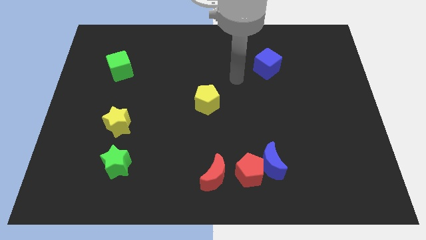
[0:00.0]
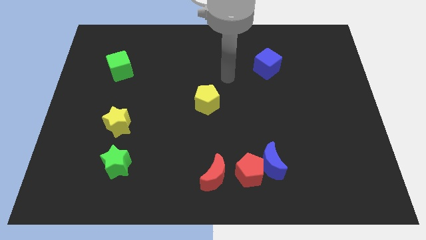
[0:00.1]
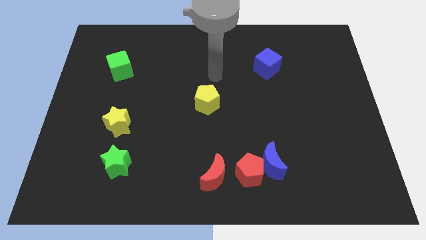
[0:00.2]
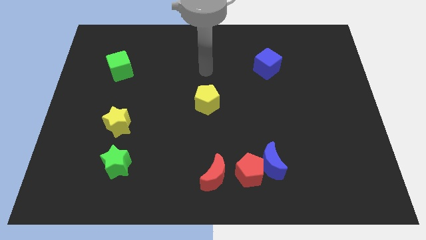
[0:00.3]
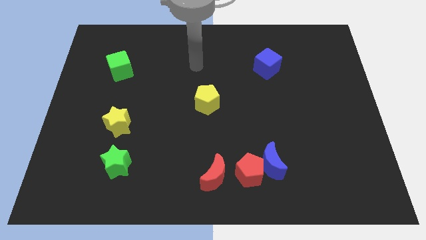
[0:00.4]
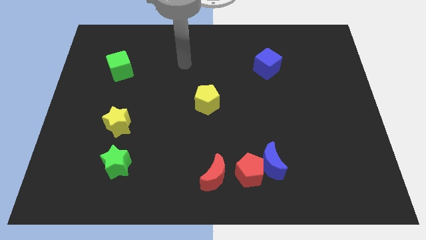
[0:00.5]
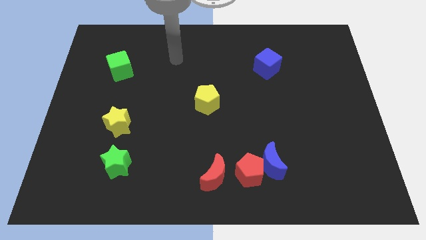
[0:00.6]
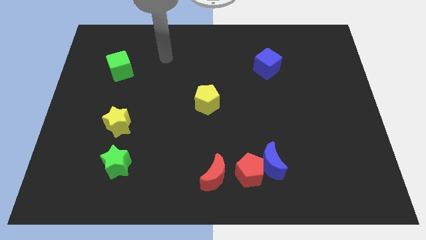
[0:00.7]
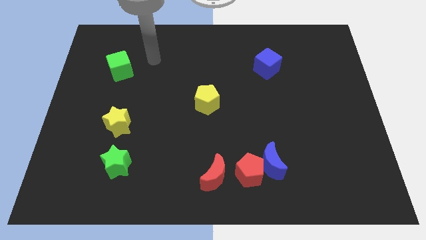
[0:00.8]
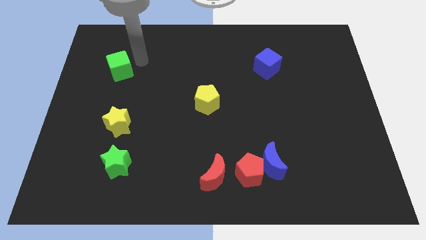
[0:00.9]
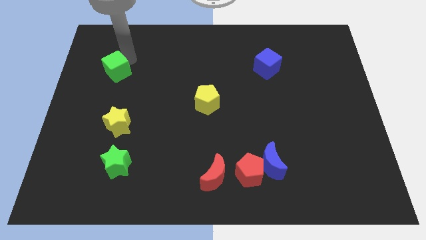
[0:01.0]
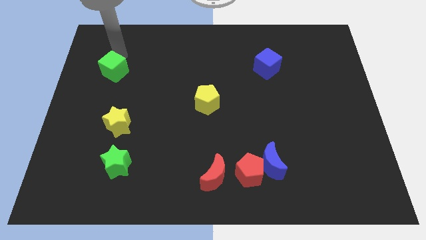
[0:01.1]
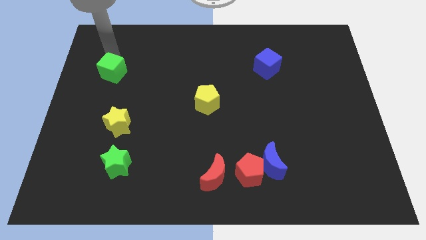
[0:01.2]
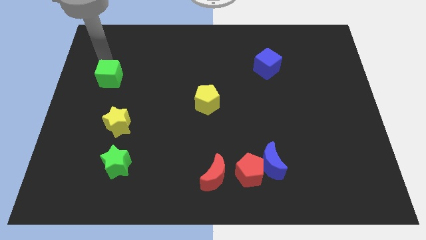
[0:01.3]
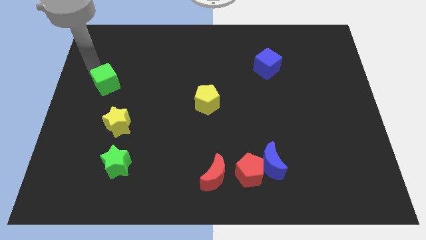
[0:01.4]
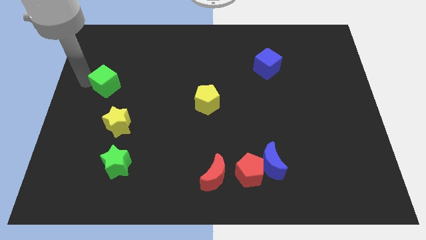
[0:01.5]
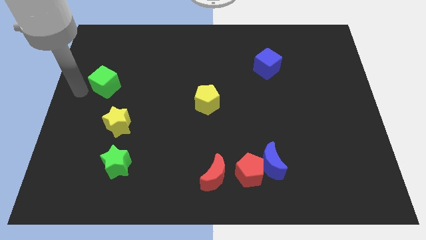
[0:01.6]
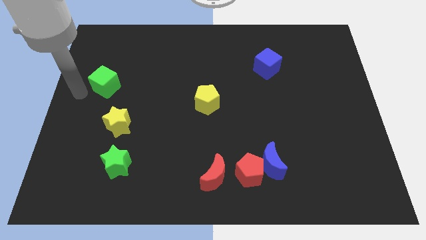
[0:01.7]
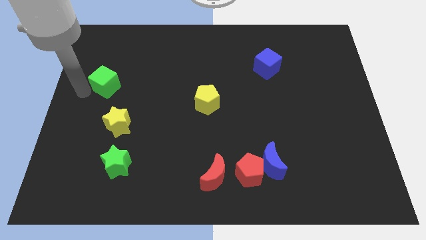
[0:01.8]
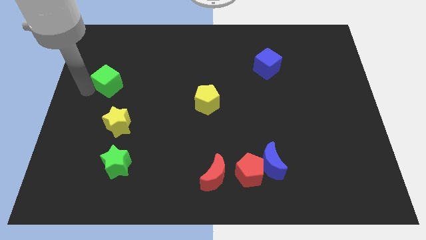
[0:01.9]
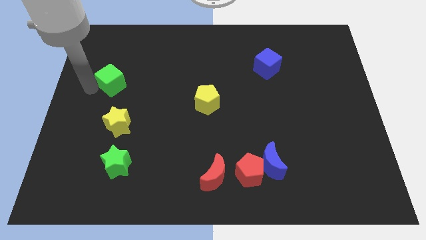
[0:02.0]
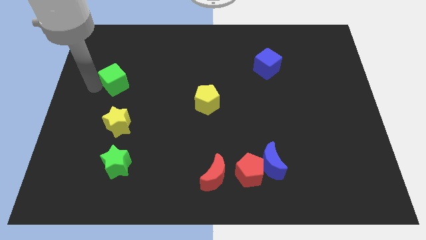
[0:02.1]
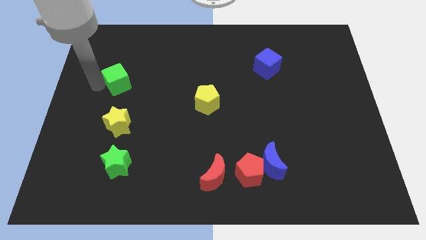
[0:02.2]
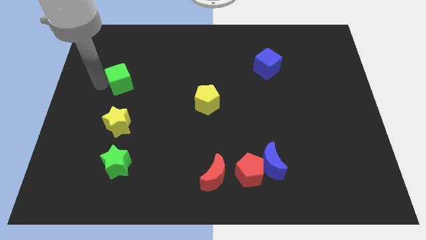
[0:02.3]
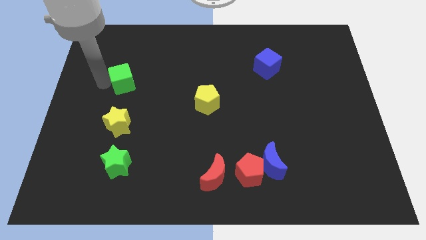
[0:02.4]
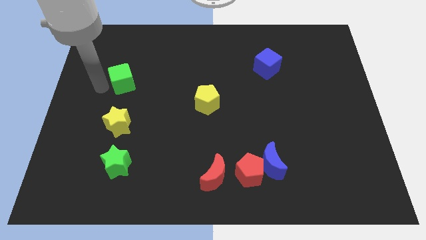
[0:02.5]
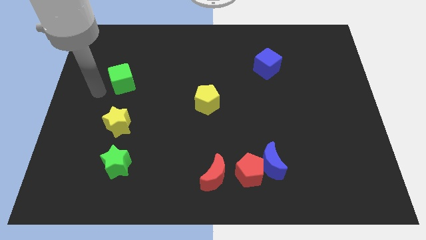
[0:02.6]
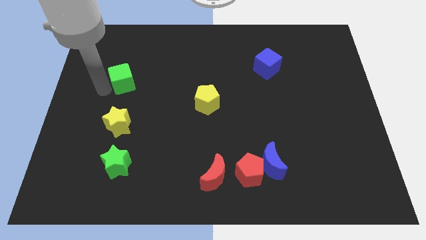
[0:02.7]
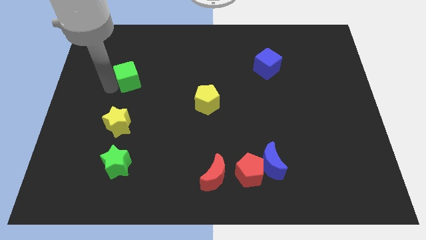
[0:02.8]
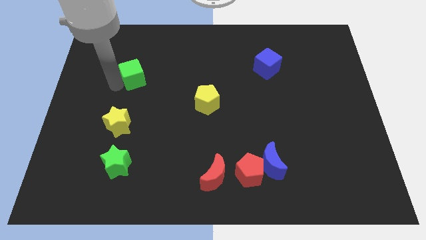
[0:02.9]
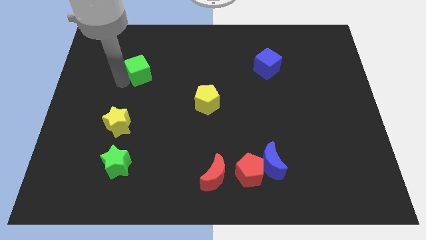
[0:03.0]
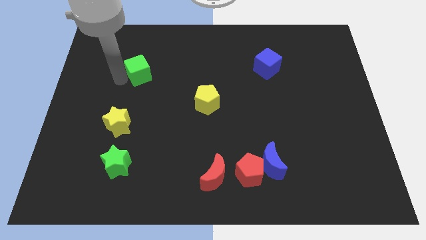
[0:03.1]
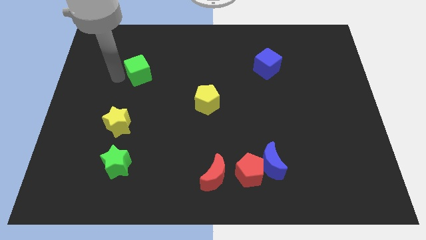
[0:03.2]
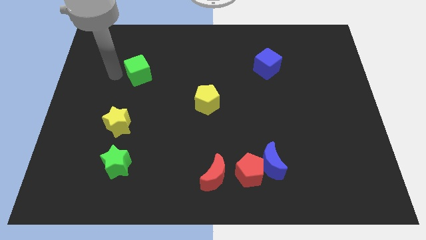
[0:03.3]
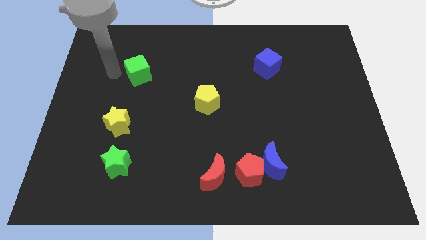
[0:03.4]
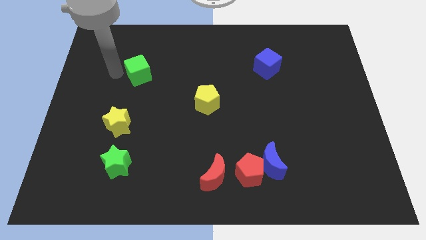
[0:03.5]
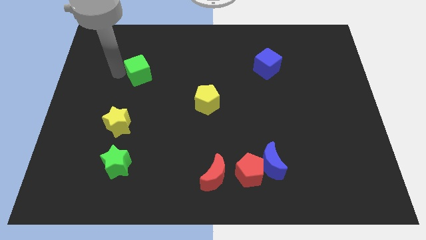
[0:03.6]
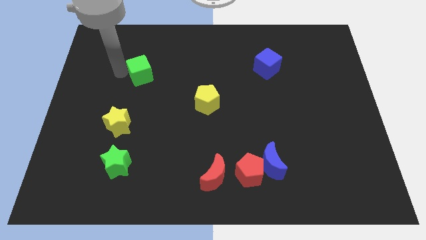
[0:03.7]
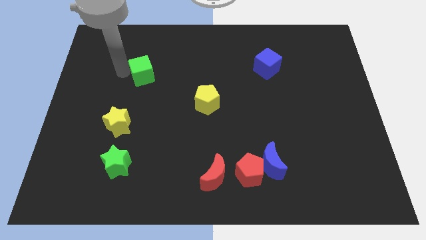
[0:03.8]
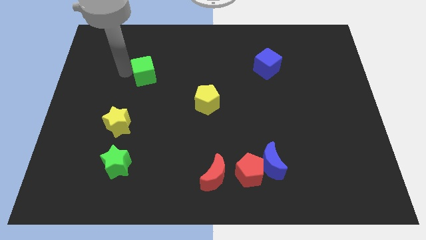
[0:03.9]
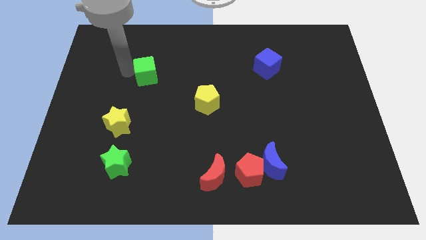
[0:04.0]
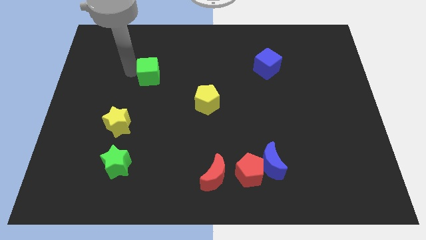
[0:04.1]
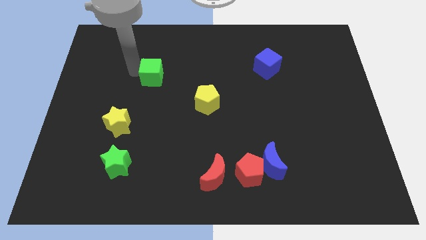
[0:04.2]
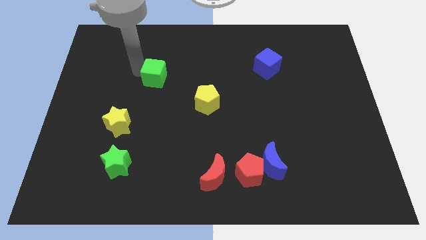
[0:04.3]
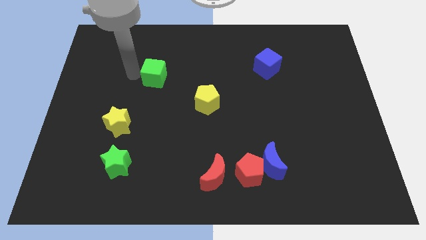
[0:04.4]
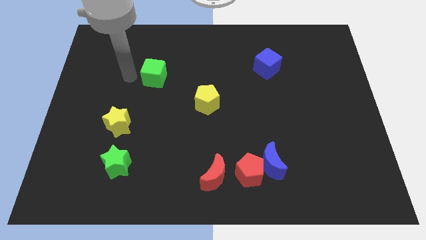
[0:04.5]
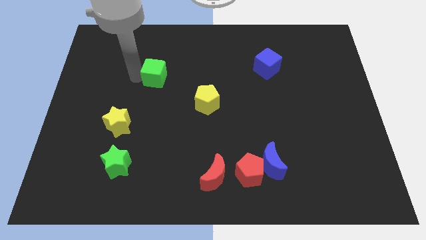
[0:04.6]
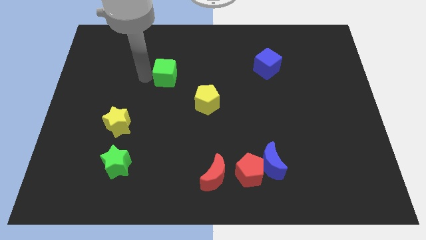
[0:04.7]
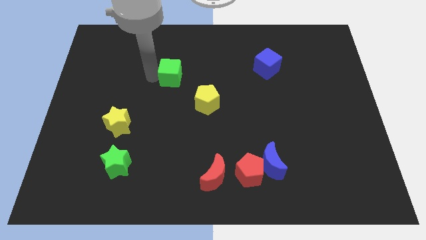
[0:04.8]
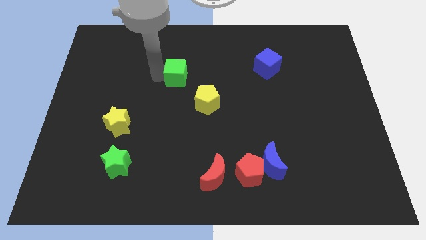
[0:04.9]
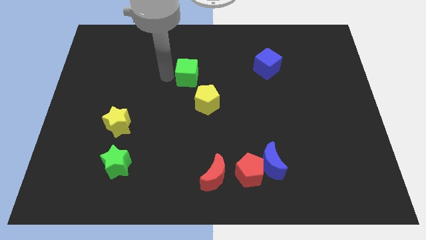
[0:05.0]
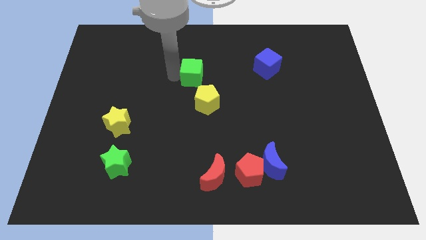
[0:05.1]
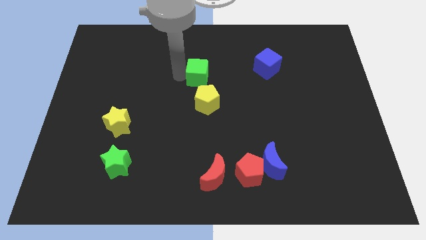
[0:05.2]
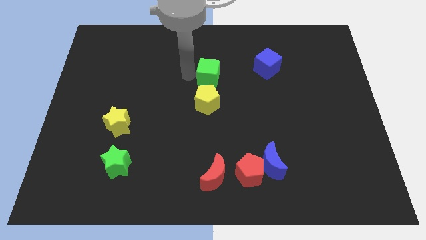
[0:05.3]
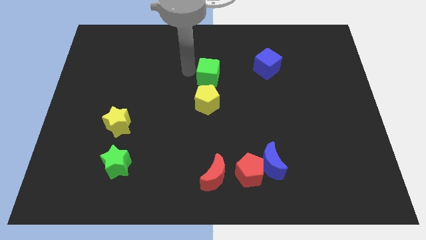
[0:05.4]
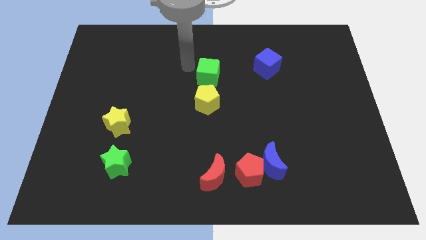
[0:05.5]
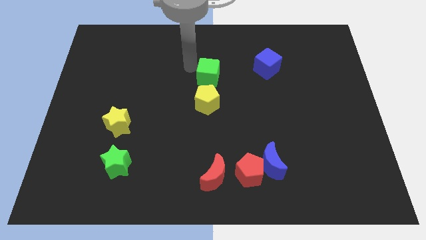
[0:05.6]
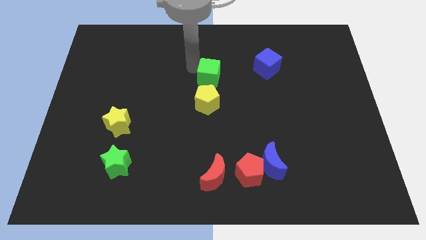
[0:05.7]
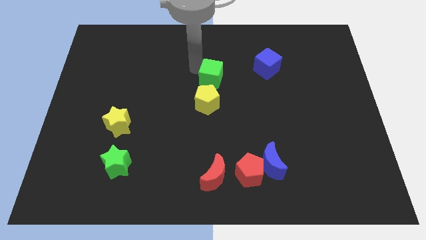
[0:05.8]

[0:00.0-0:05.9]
move the green cube to the top right side of the yellow pentagon

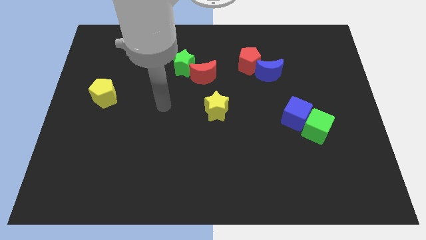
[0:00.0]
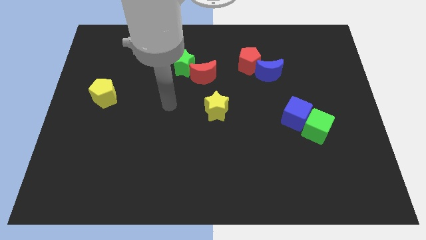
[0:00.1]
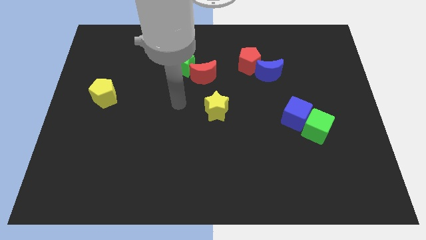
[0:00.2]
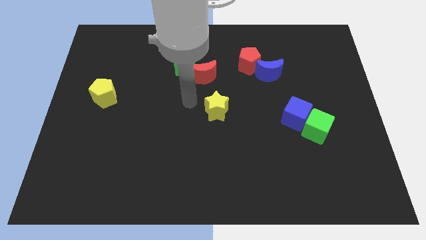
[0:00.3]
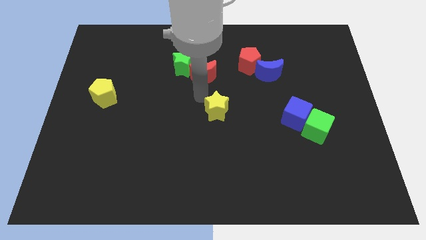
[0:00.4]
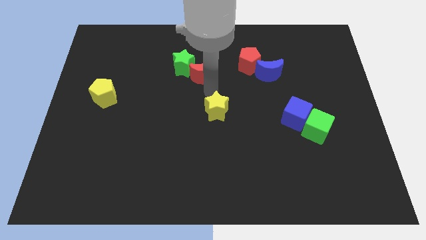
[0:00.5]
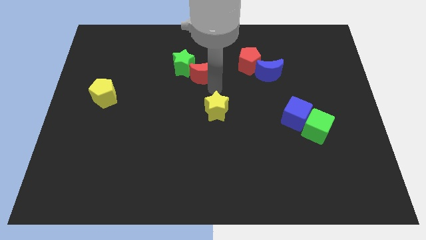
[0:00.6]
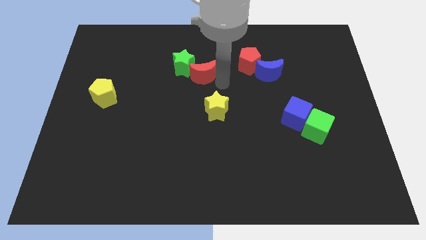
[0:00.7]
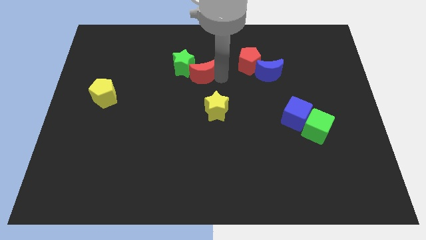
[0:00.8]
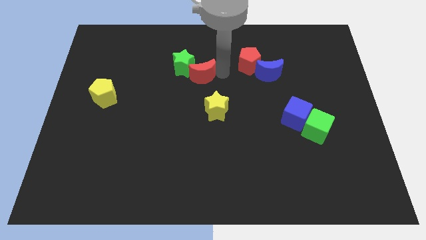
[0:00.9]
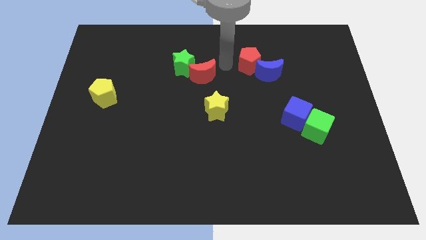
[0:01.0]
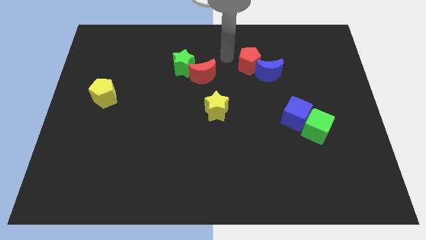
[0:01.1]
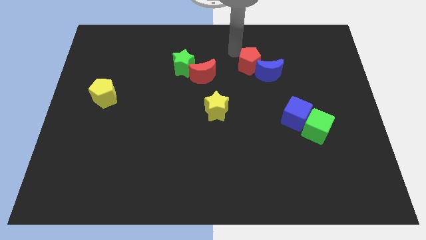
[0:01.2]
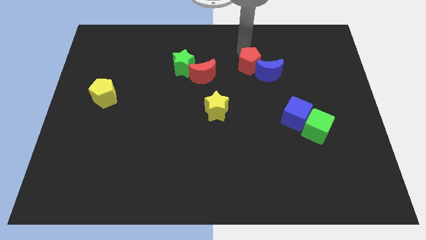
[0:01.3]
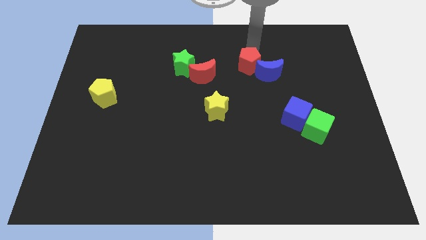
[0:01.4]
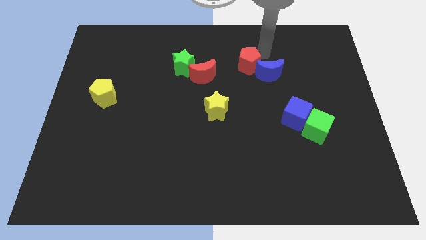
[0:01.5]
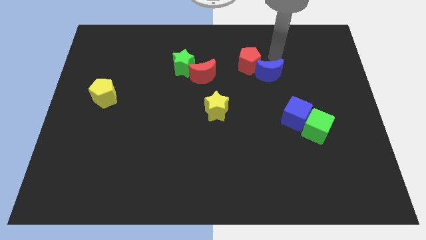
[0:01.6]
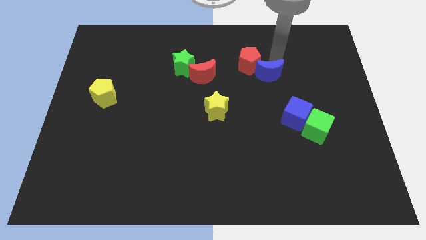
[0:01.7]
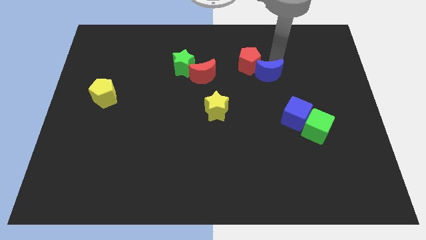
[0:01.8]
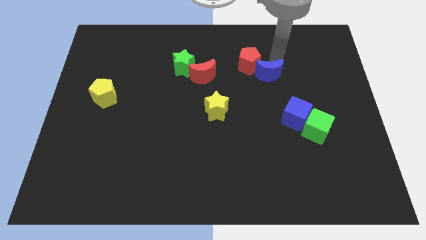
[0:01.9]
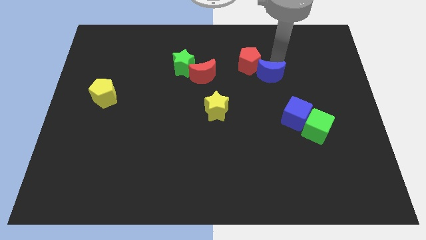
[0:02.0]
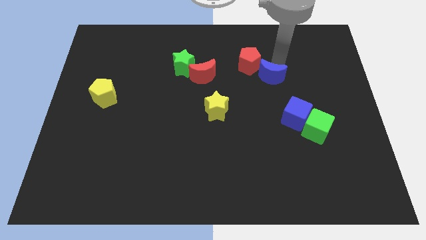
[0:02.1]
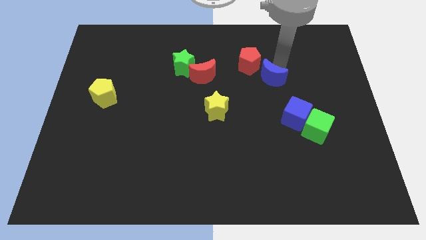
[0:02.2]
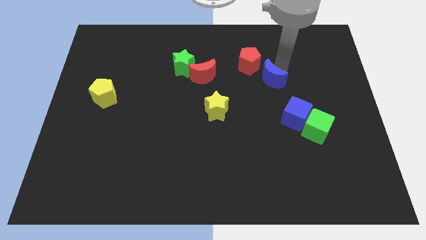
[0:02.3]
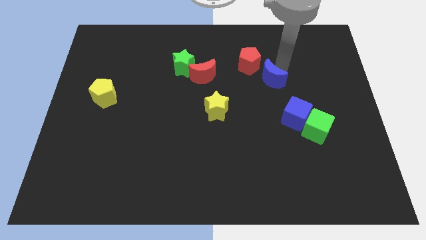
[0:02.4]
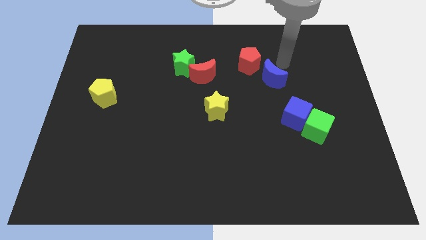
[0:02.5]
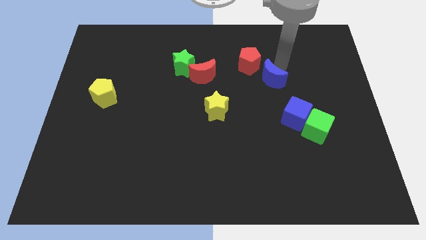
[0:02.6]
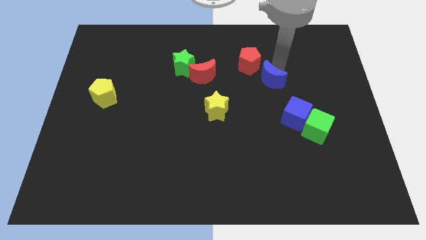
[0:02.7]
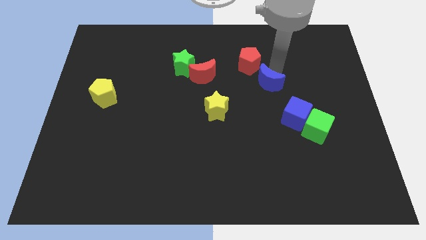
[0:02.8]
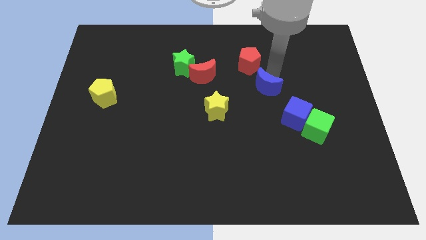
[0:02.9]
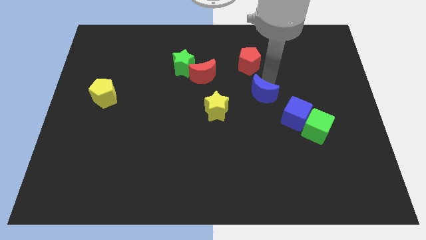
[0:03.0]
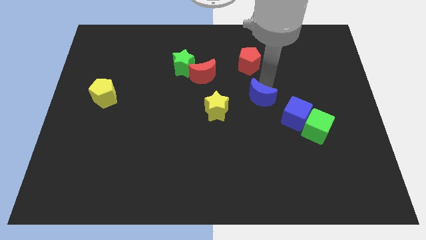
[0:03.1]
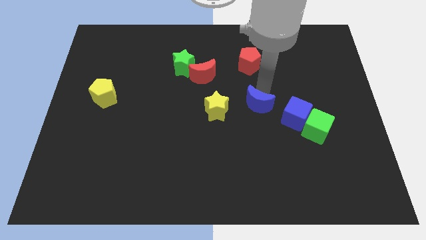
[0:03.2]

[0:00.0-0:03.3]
slide the blue moon to the left side of the blue cube
